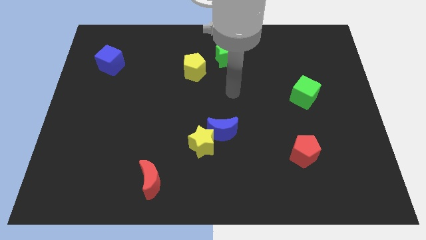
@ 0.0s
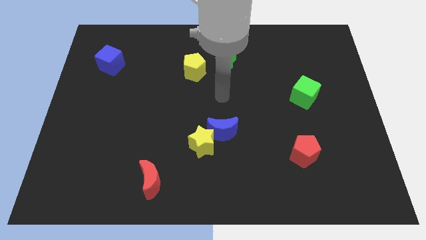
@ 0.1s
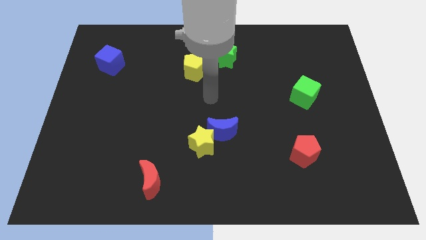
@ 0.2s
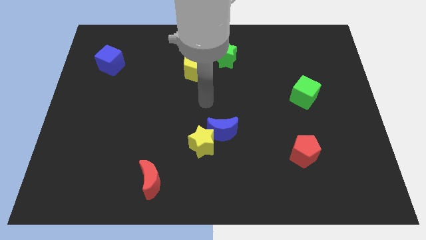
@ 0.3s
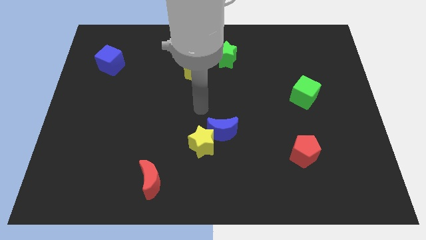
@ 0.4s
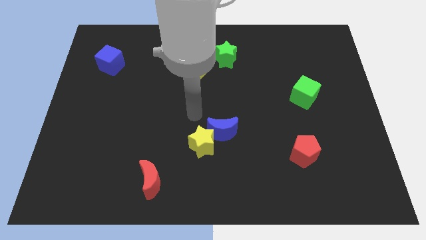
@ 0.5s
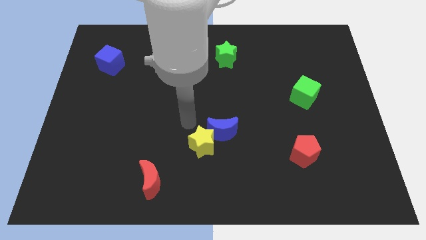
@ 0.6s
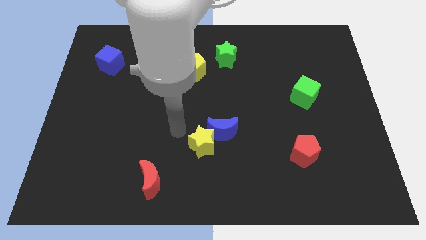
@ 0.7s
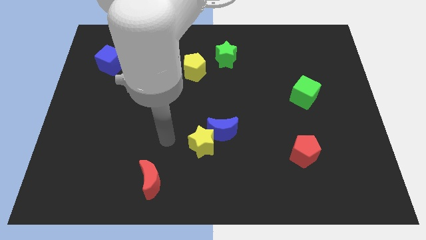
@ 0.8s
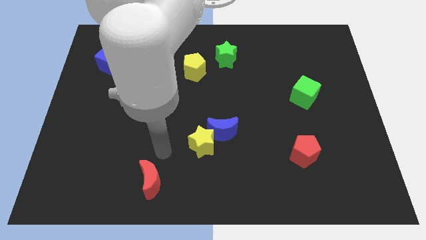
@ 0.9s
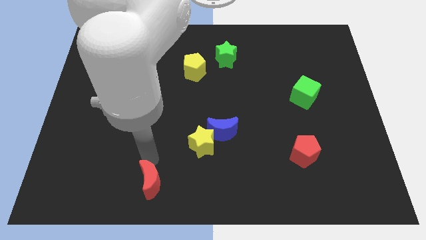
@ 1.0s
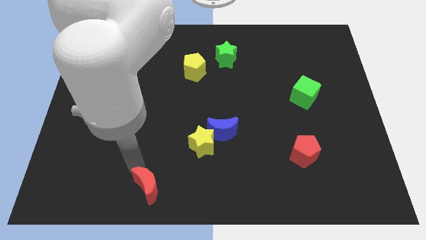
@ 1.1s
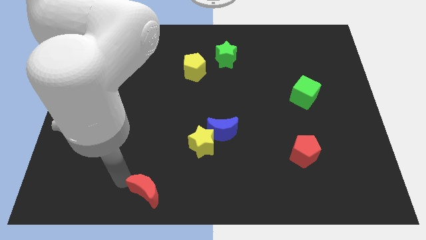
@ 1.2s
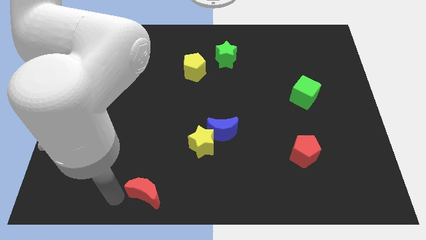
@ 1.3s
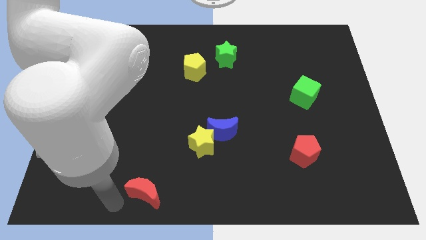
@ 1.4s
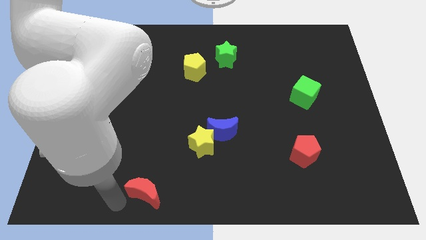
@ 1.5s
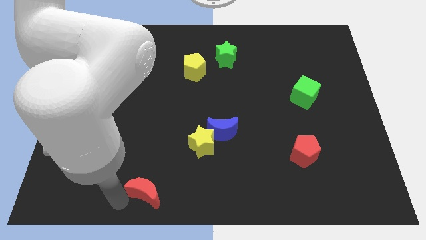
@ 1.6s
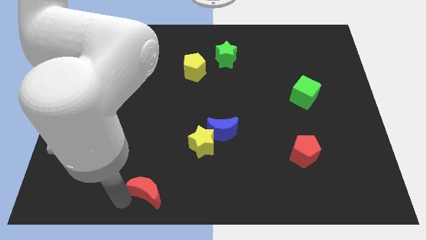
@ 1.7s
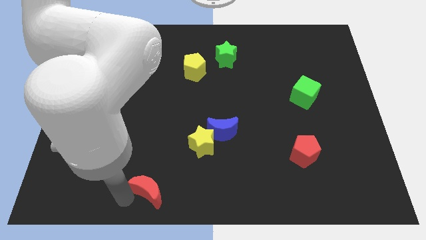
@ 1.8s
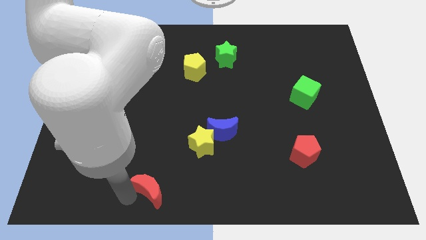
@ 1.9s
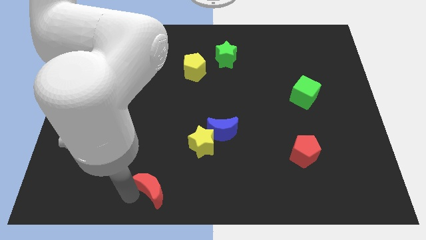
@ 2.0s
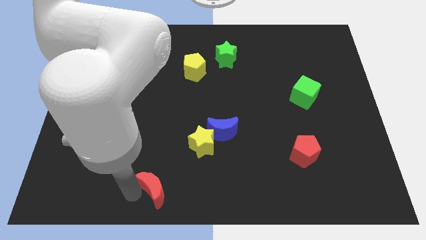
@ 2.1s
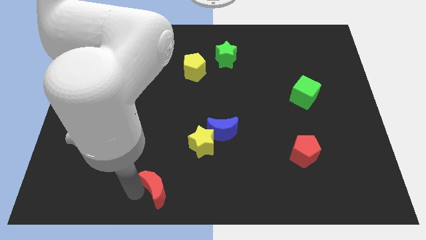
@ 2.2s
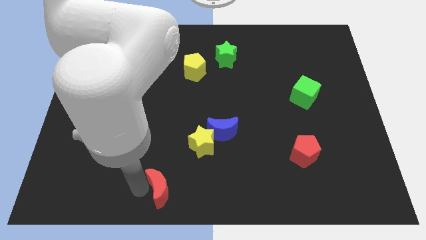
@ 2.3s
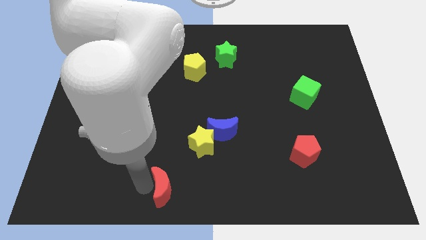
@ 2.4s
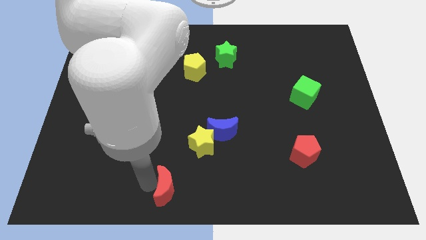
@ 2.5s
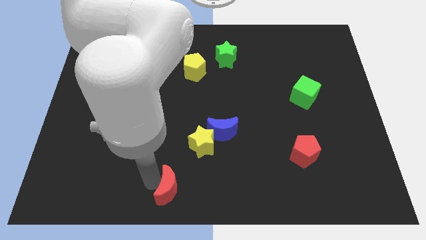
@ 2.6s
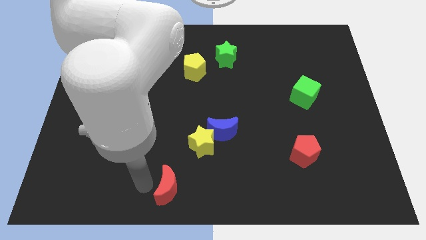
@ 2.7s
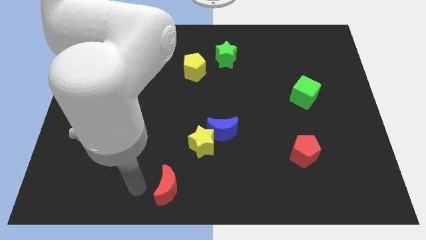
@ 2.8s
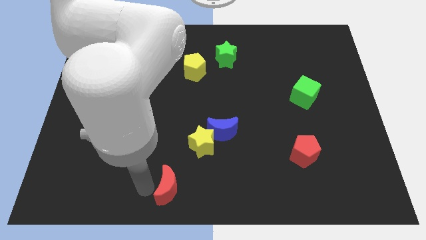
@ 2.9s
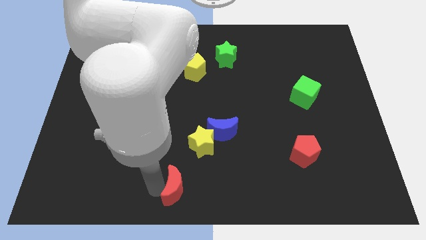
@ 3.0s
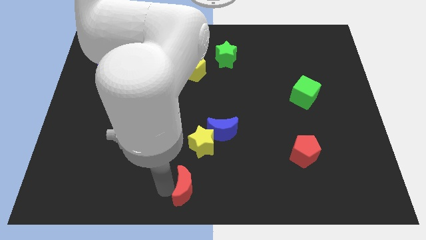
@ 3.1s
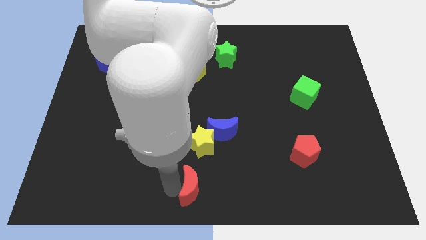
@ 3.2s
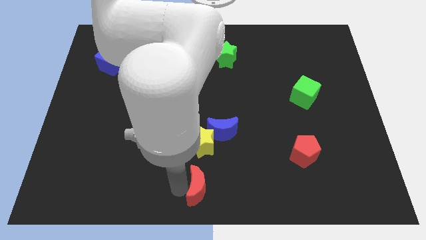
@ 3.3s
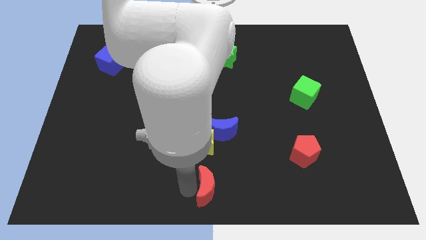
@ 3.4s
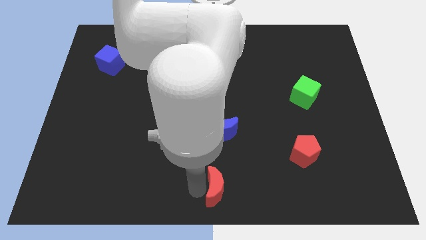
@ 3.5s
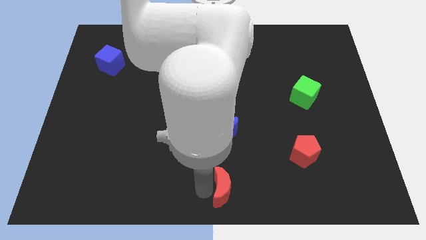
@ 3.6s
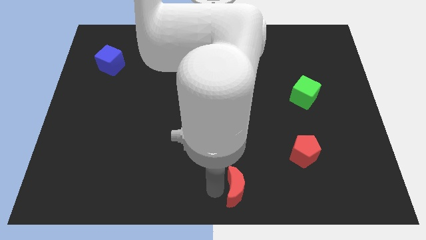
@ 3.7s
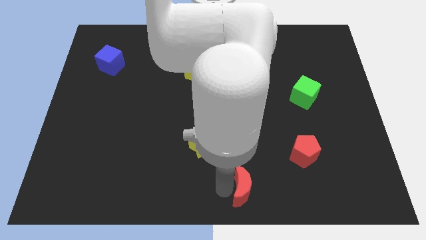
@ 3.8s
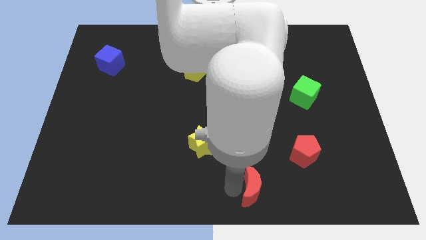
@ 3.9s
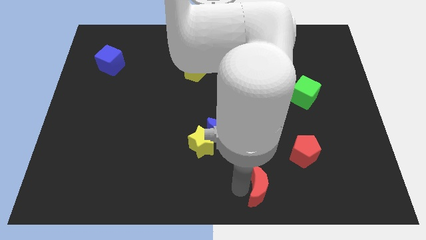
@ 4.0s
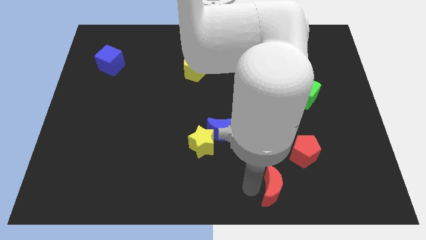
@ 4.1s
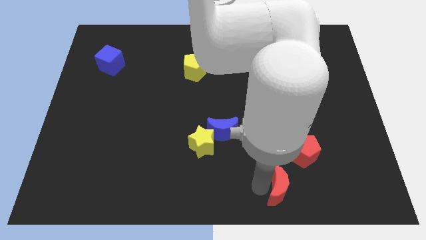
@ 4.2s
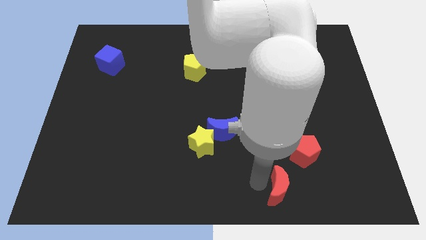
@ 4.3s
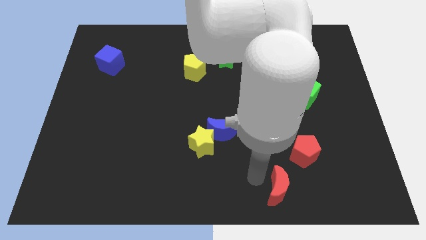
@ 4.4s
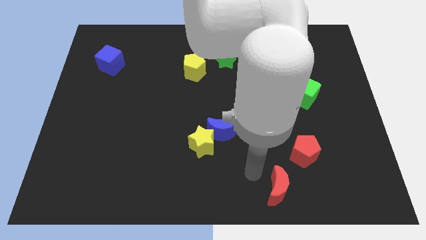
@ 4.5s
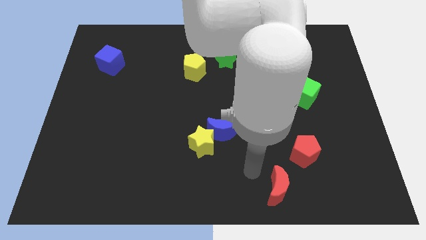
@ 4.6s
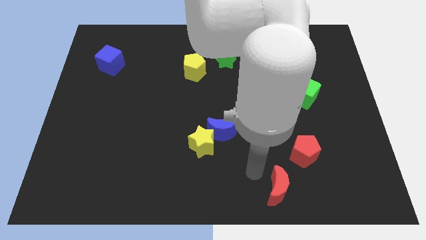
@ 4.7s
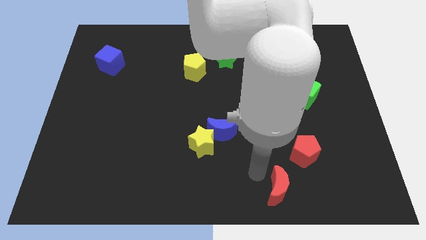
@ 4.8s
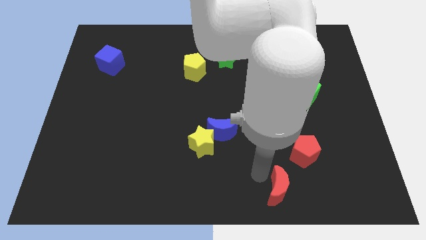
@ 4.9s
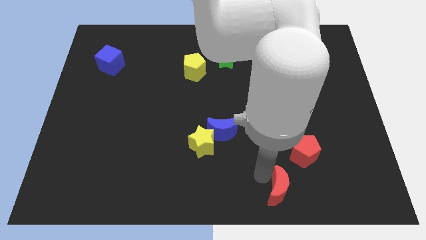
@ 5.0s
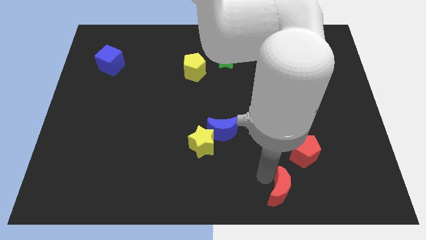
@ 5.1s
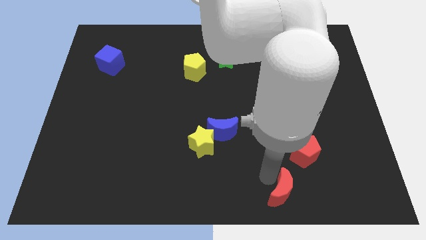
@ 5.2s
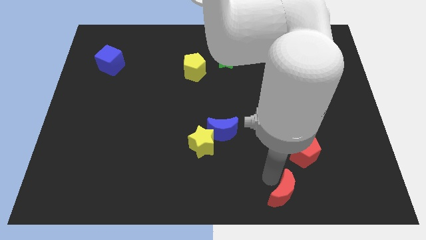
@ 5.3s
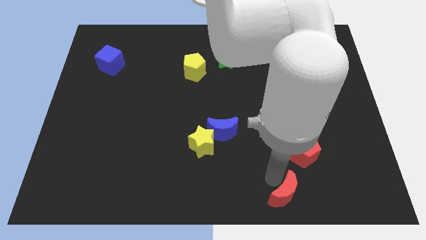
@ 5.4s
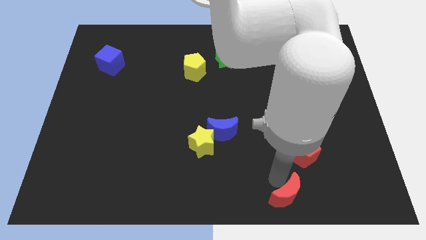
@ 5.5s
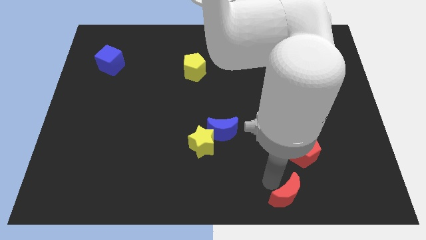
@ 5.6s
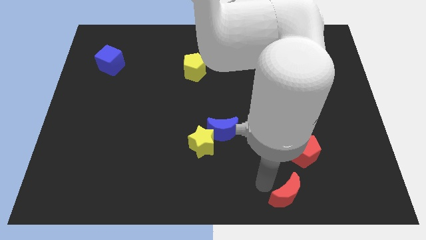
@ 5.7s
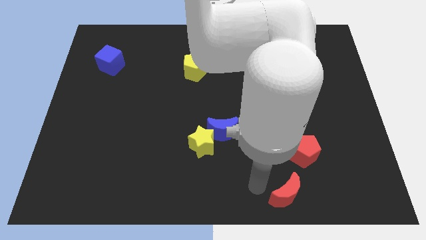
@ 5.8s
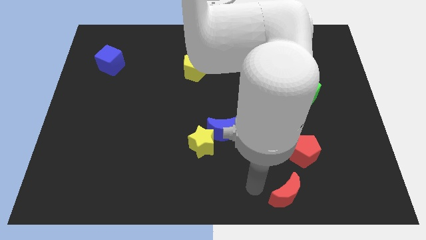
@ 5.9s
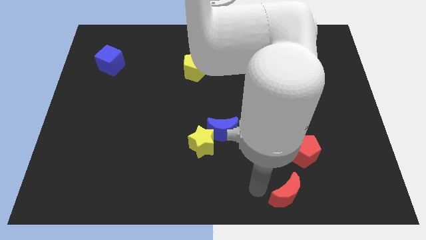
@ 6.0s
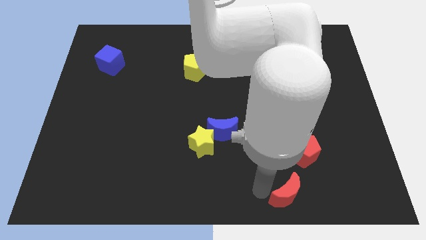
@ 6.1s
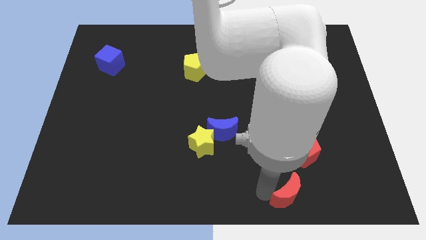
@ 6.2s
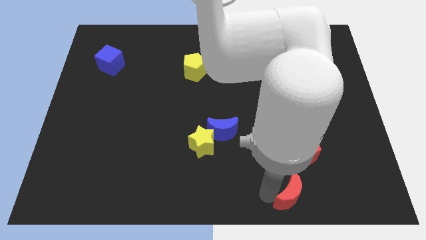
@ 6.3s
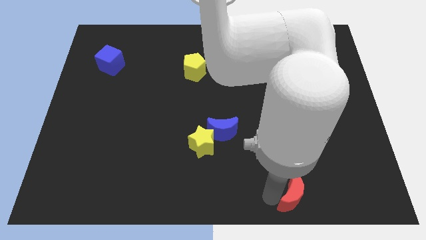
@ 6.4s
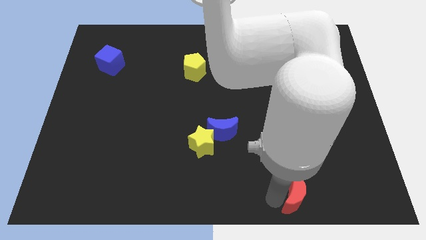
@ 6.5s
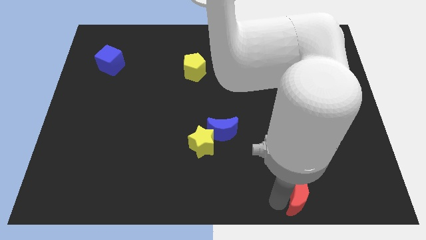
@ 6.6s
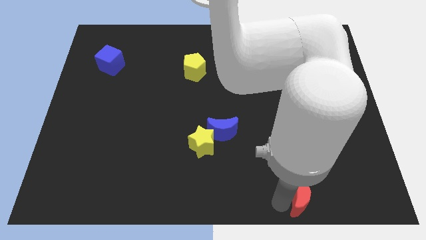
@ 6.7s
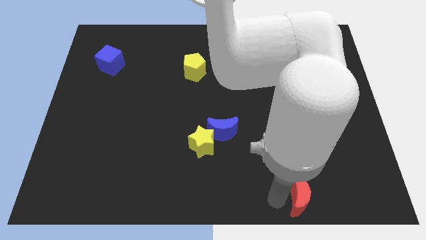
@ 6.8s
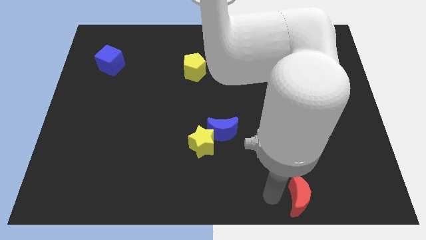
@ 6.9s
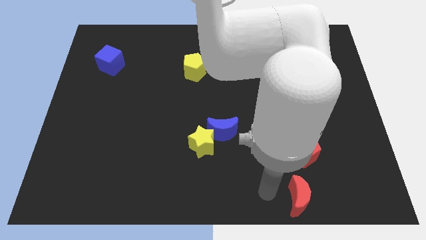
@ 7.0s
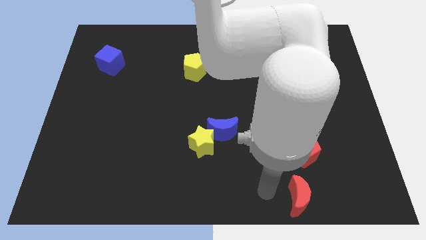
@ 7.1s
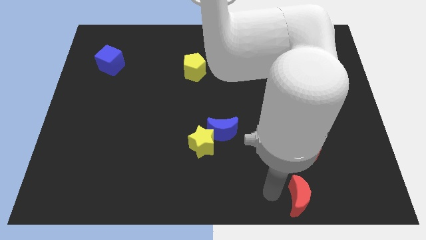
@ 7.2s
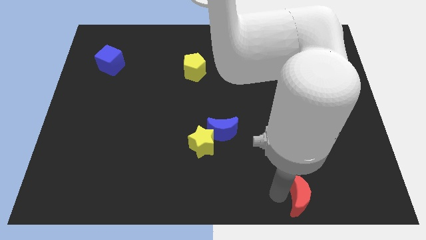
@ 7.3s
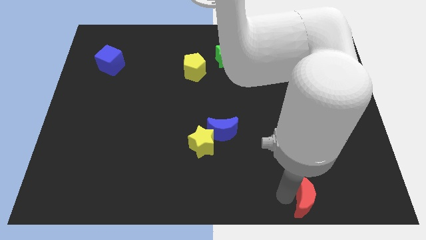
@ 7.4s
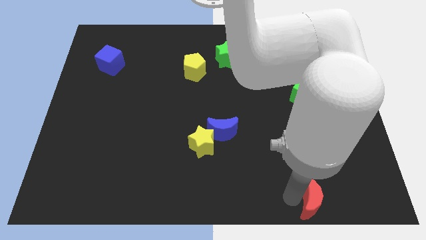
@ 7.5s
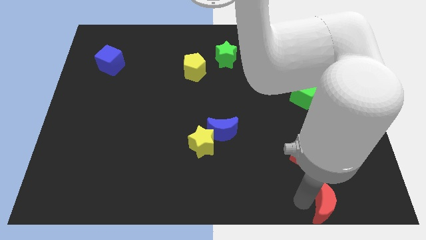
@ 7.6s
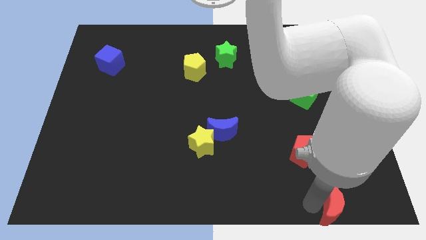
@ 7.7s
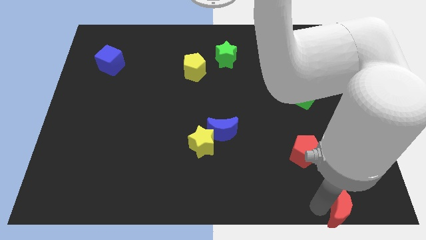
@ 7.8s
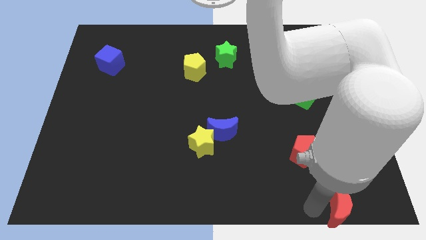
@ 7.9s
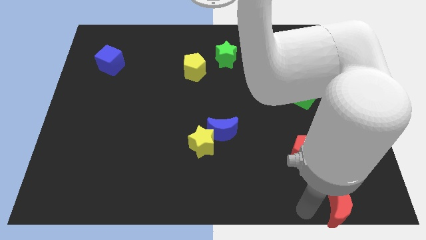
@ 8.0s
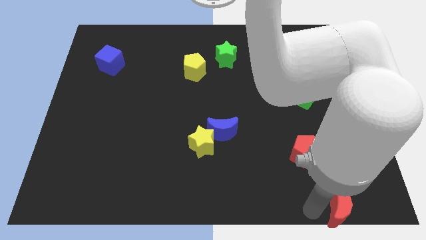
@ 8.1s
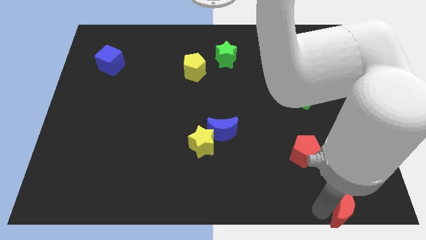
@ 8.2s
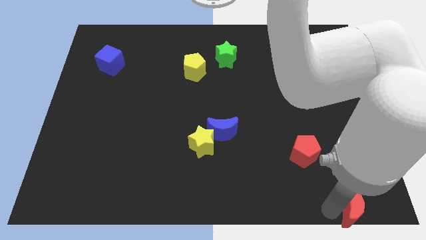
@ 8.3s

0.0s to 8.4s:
push the red moon to the bottom right of the board
